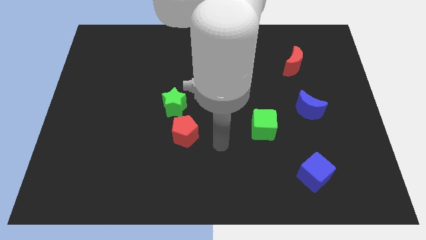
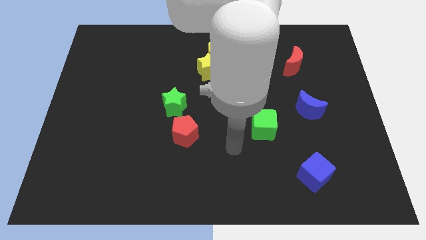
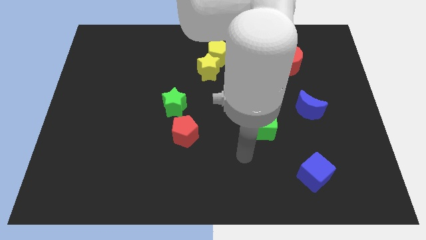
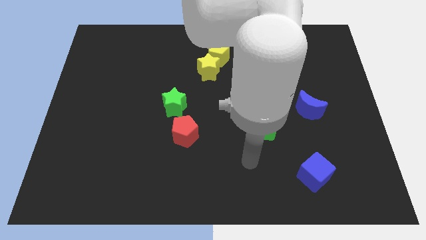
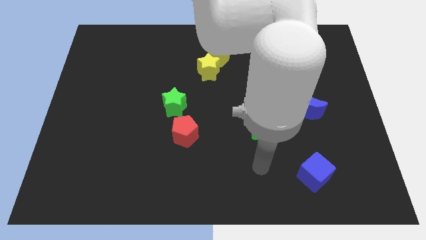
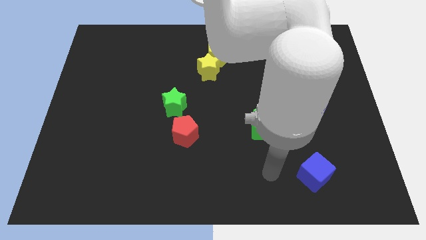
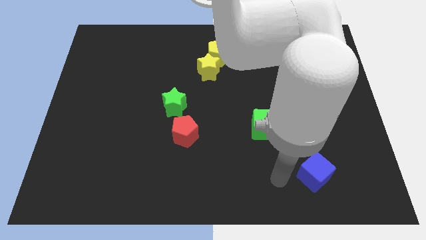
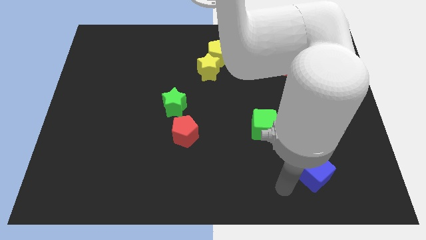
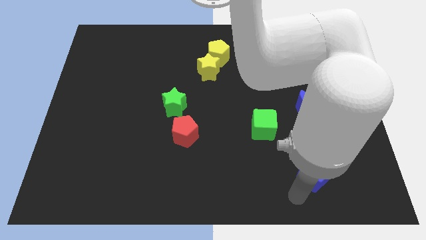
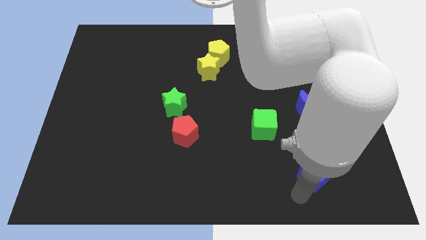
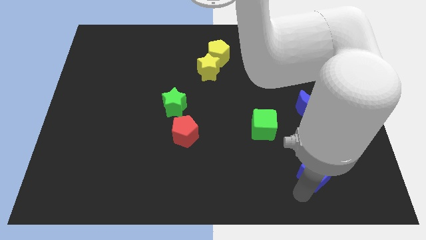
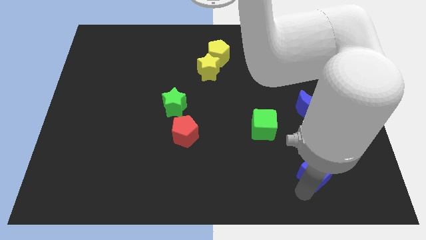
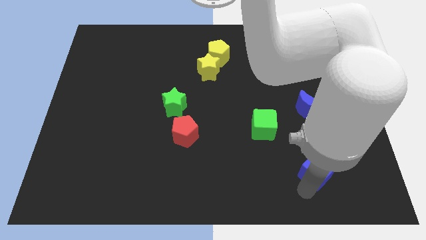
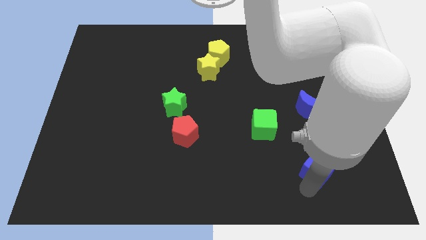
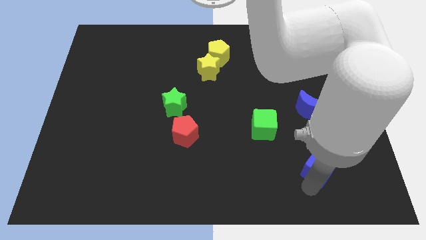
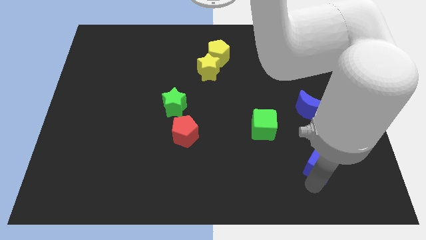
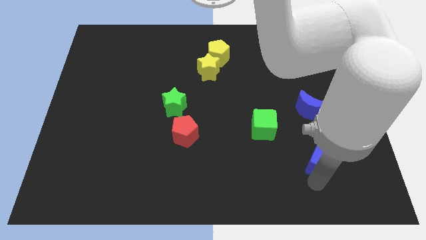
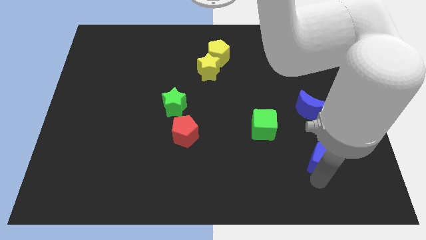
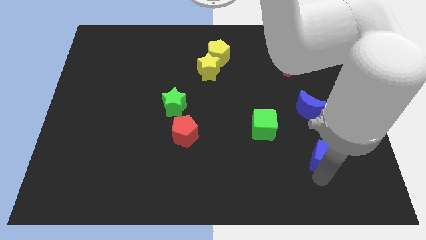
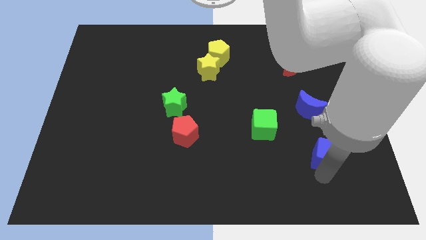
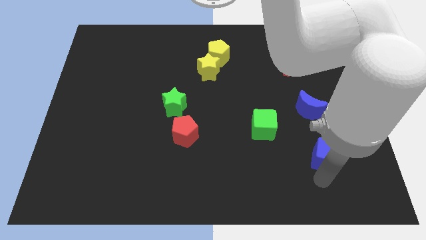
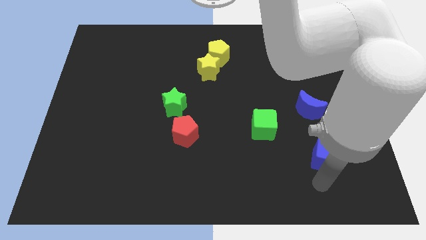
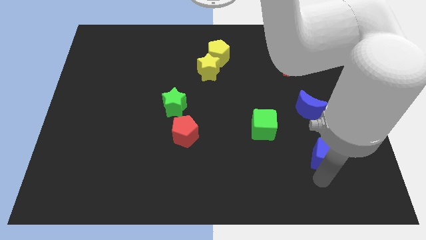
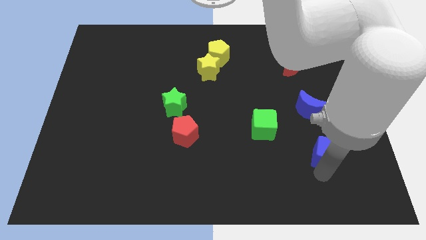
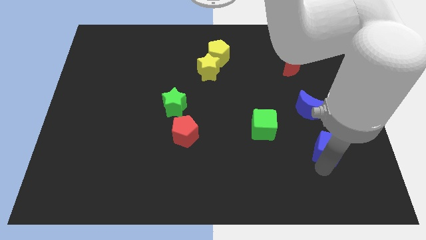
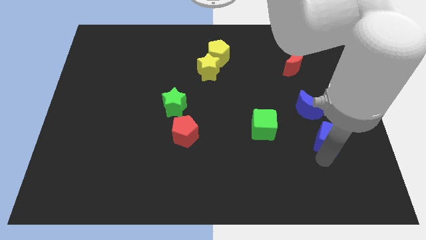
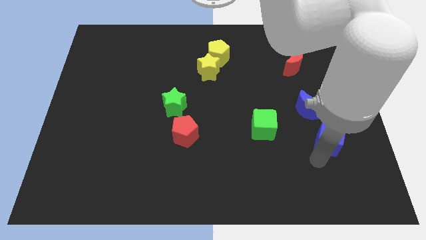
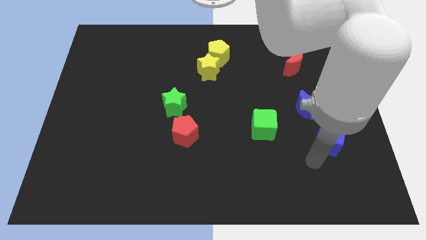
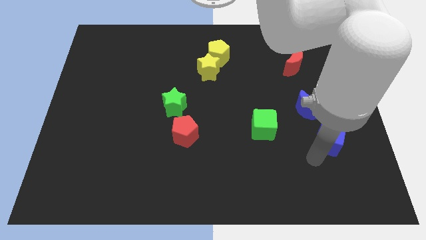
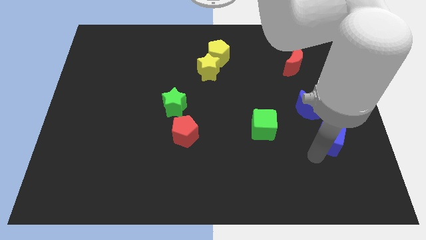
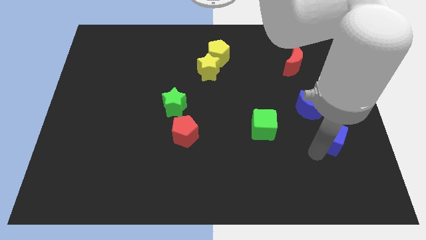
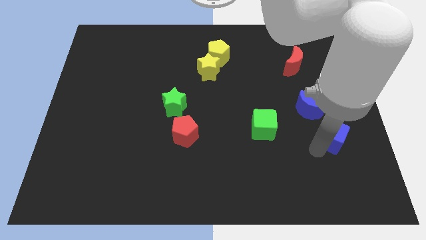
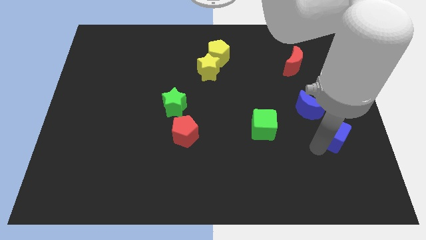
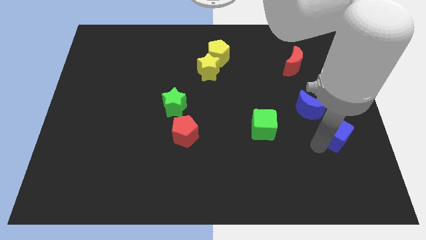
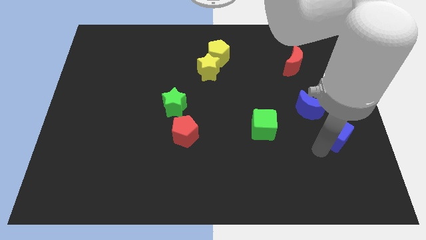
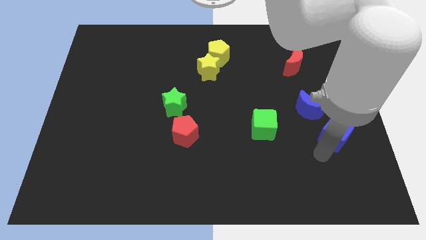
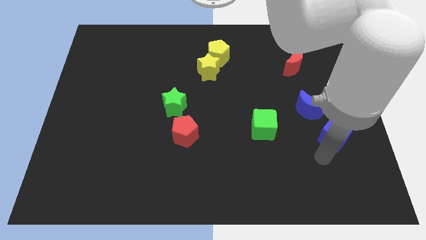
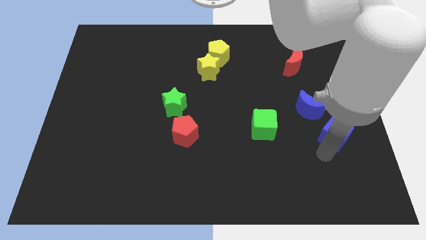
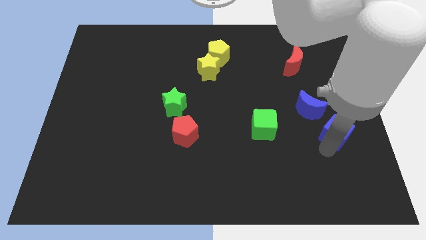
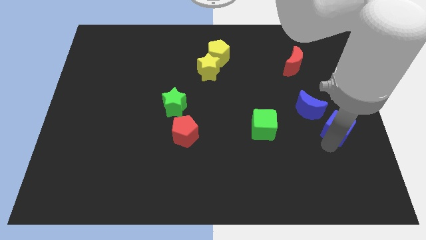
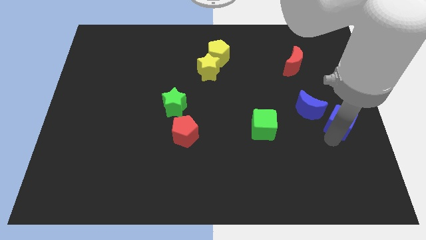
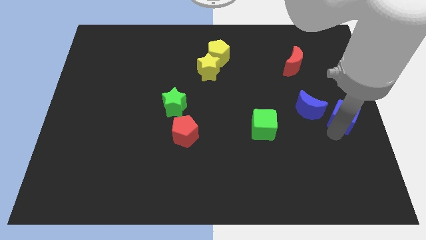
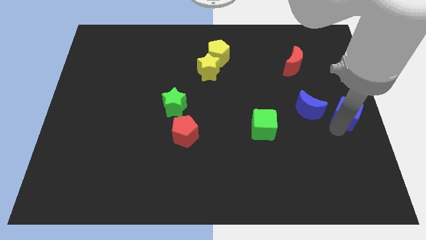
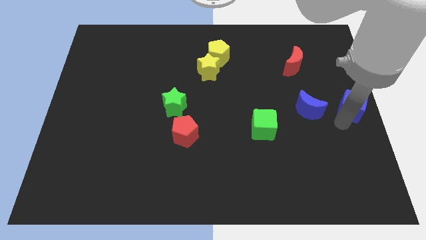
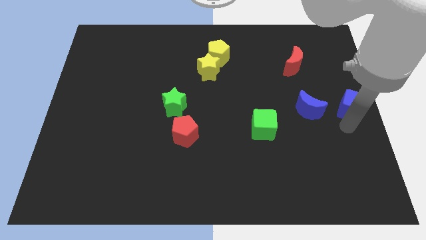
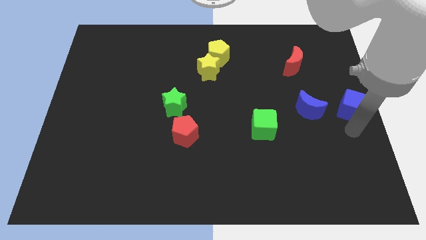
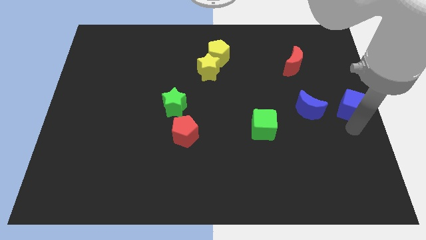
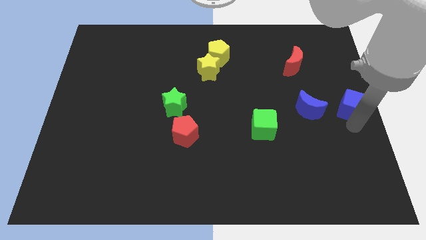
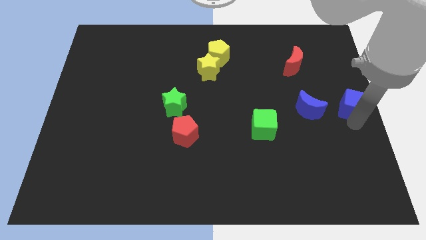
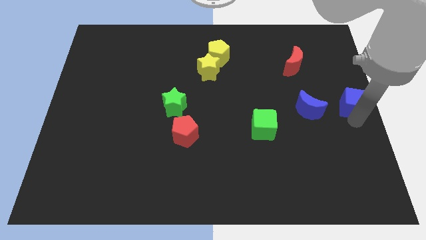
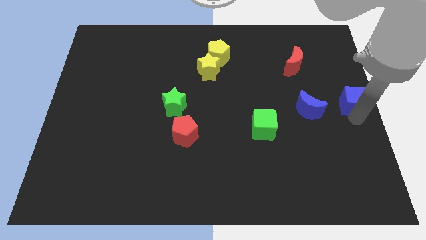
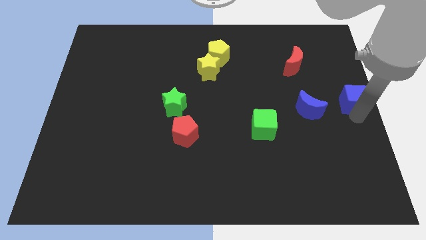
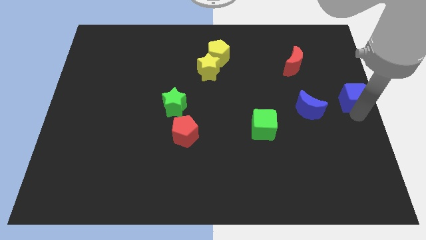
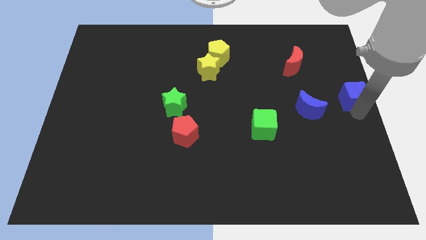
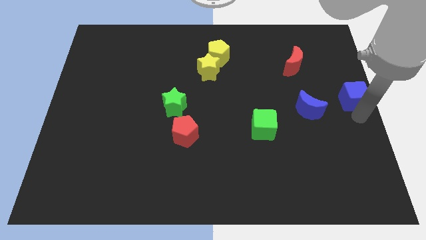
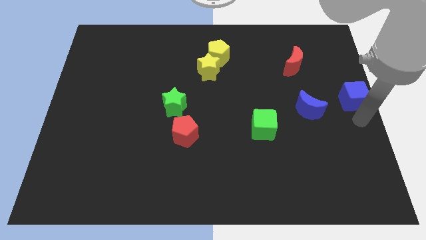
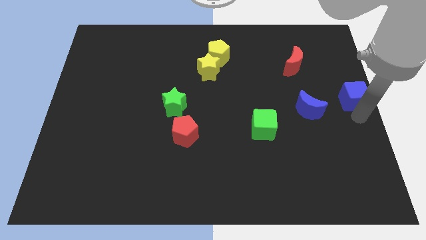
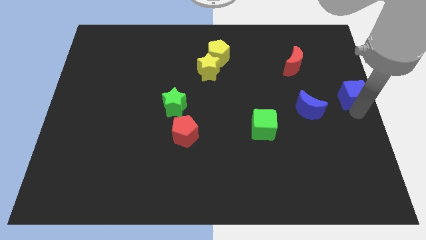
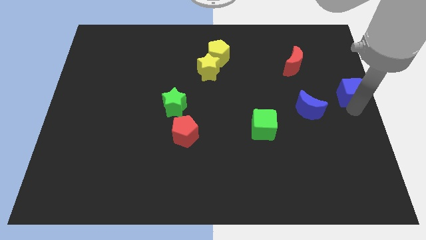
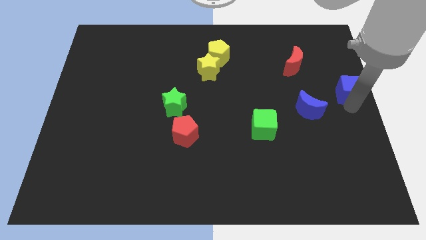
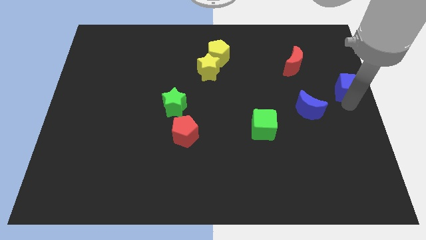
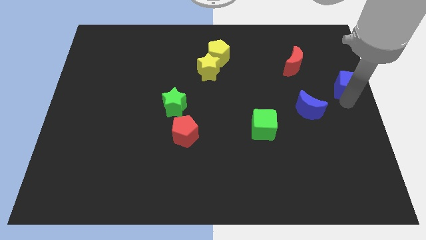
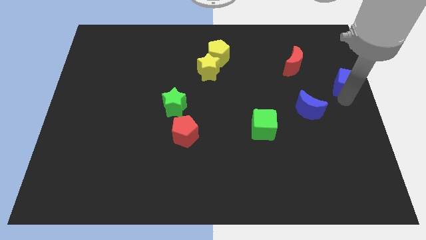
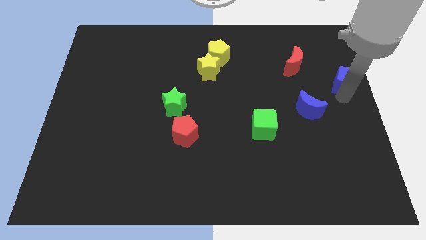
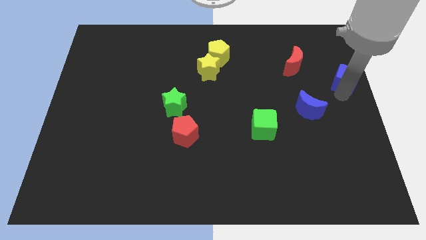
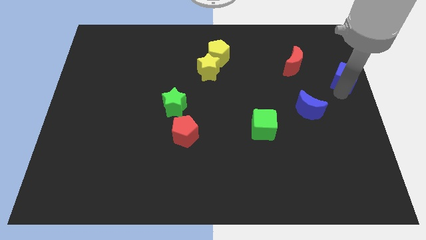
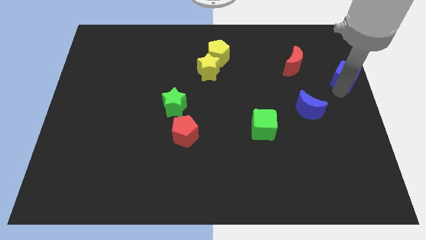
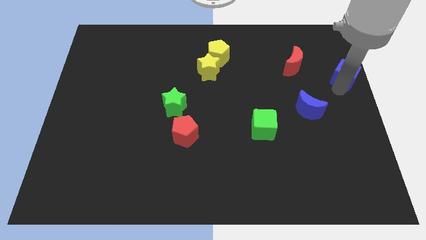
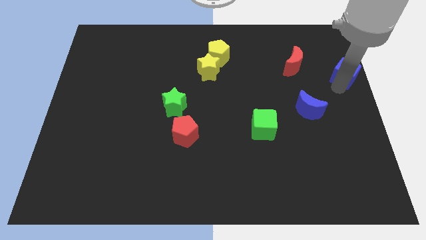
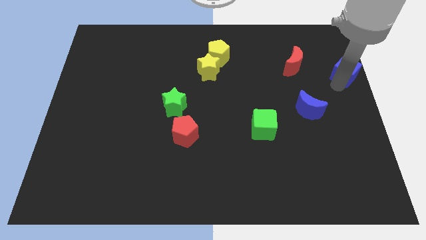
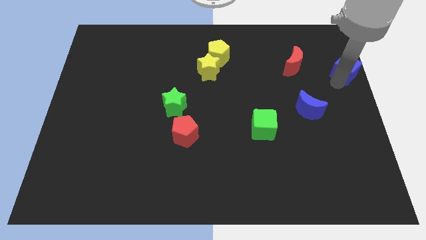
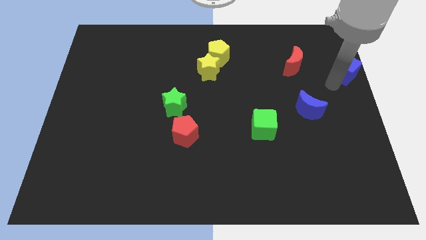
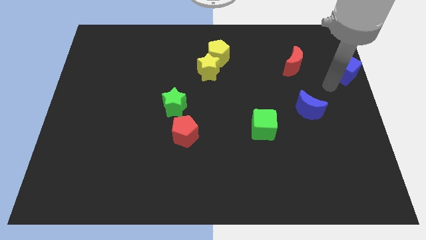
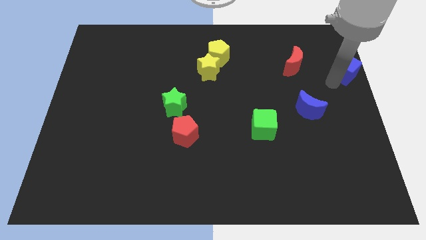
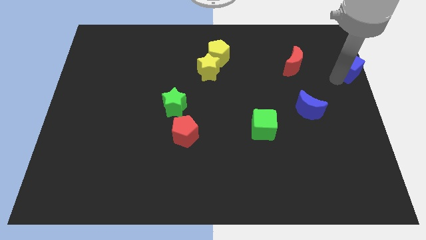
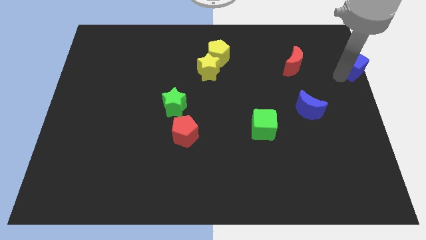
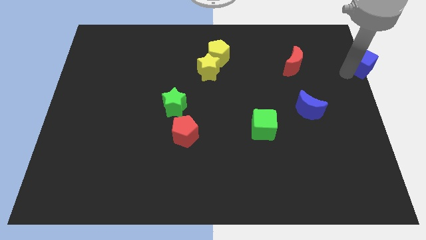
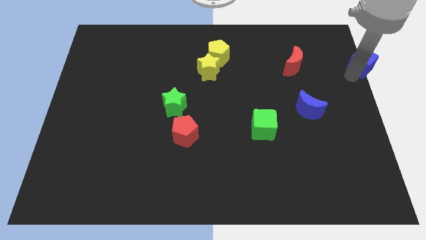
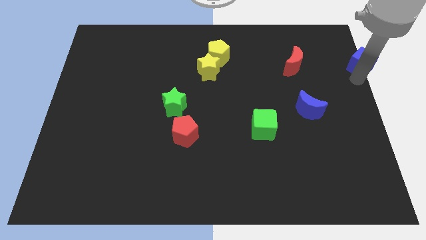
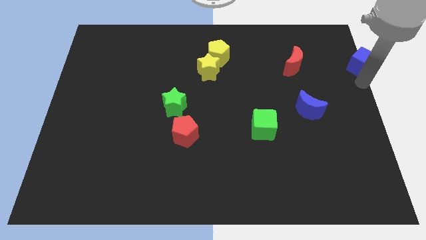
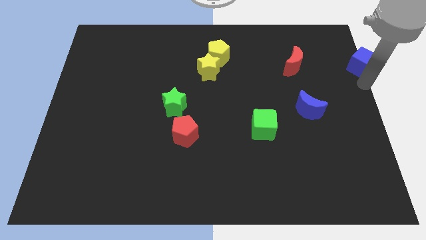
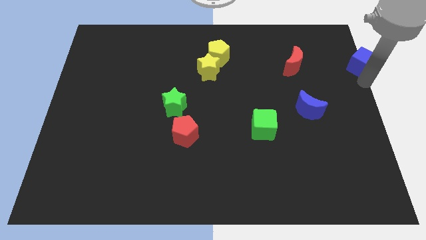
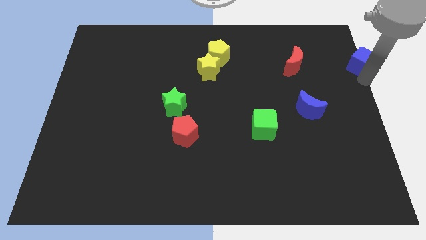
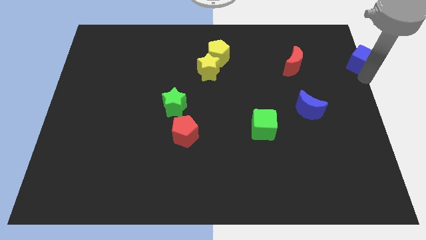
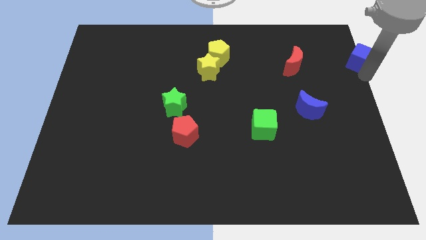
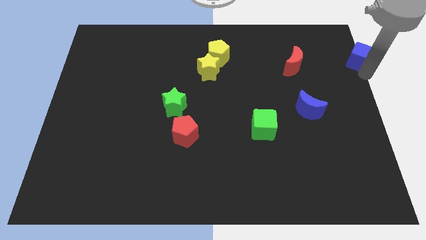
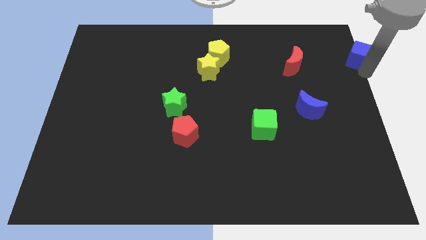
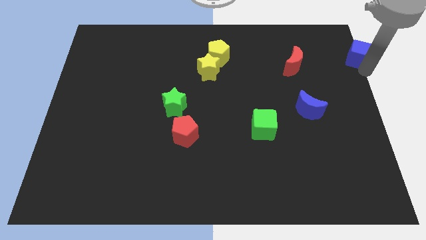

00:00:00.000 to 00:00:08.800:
push the blue cube to the upper right corner
